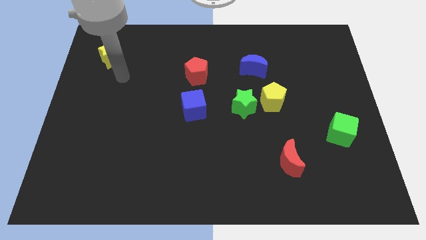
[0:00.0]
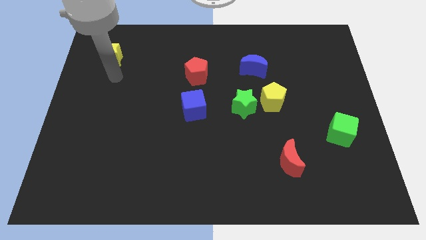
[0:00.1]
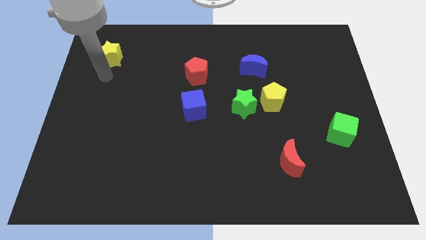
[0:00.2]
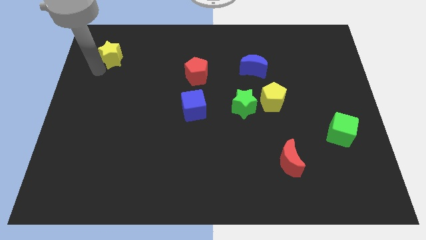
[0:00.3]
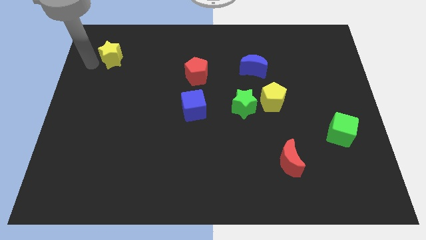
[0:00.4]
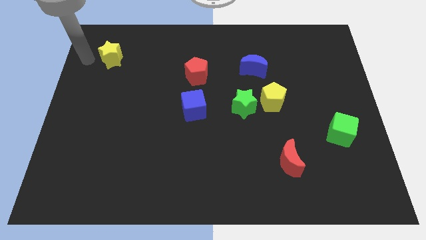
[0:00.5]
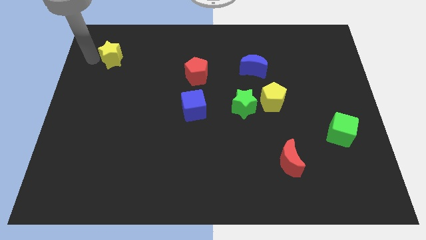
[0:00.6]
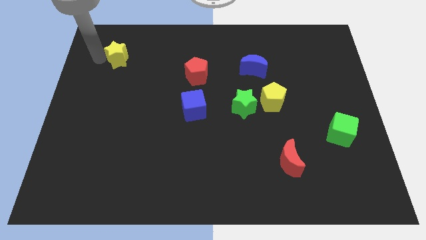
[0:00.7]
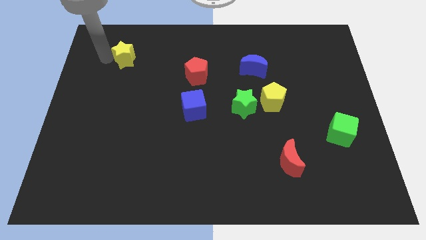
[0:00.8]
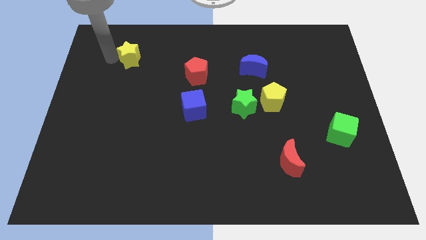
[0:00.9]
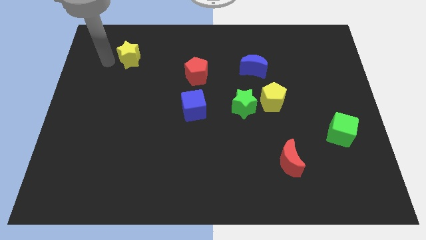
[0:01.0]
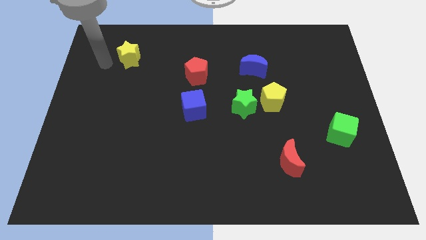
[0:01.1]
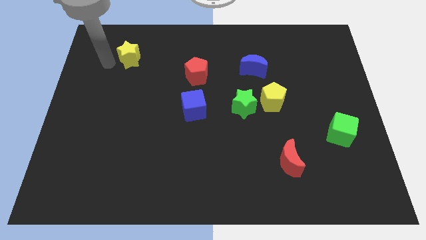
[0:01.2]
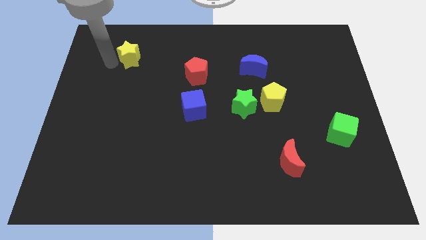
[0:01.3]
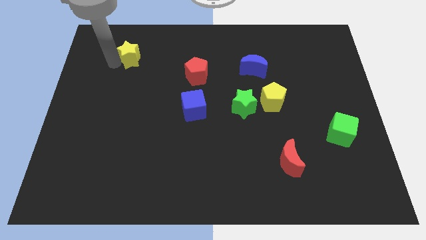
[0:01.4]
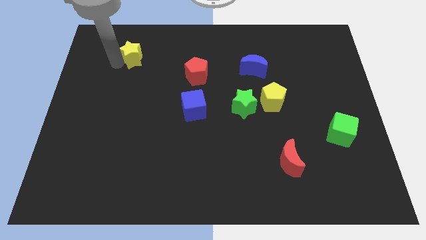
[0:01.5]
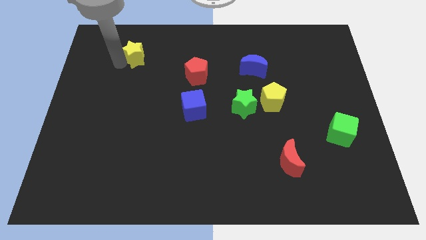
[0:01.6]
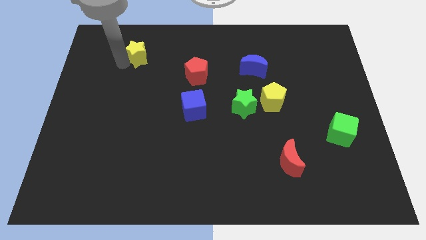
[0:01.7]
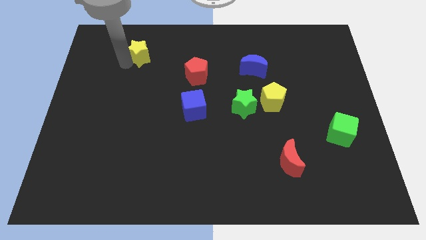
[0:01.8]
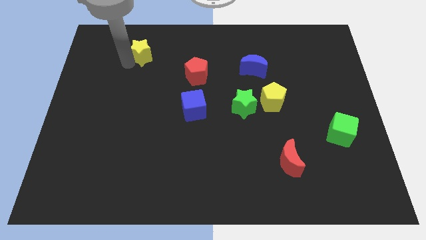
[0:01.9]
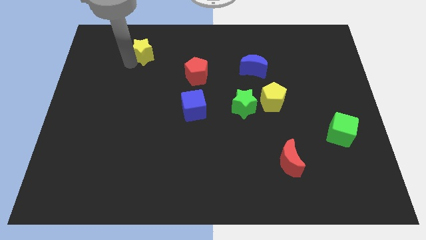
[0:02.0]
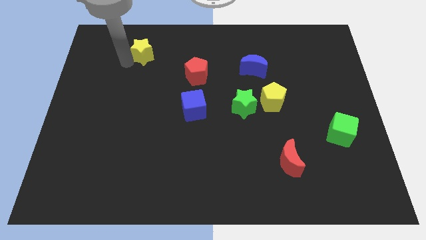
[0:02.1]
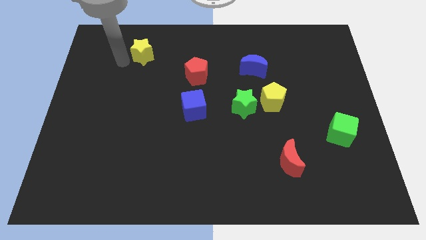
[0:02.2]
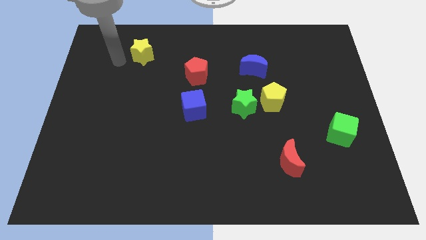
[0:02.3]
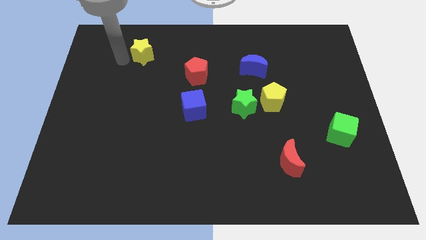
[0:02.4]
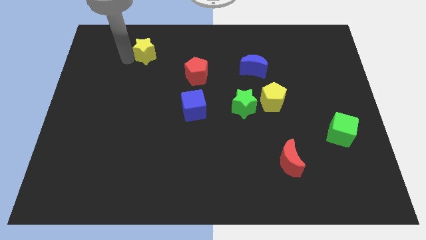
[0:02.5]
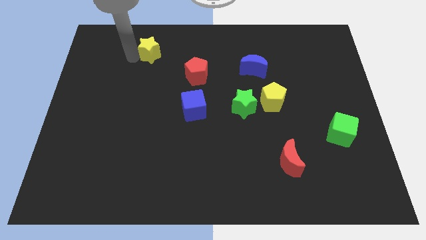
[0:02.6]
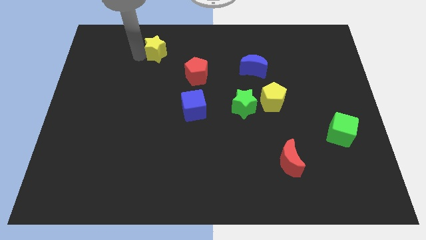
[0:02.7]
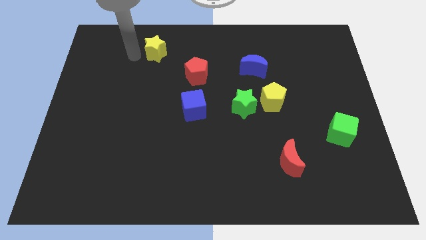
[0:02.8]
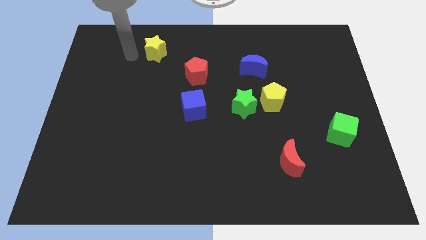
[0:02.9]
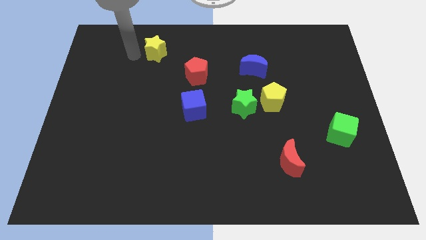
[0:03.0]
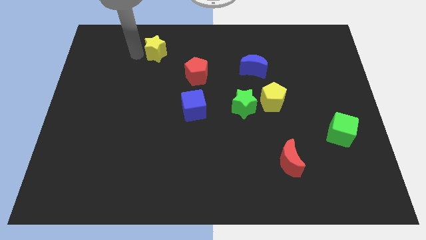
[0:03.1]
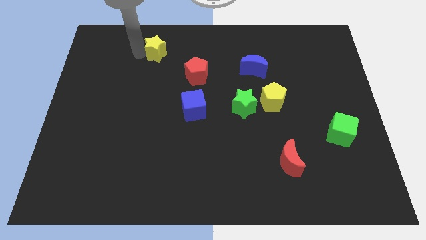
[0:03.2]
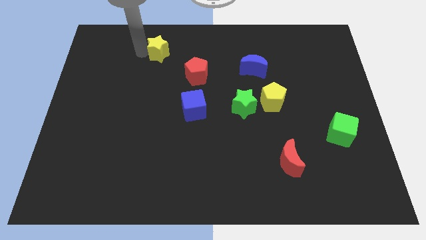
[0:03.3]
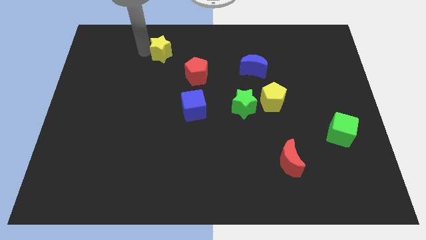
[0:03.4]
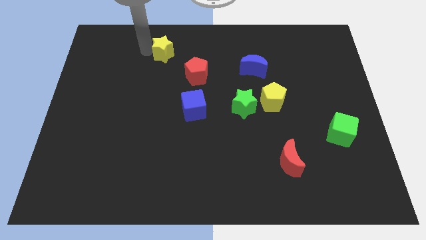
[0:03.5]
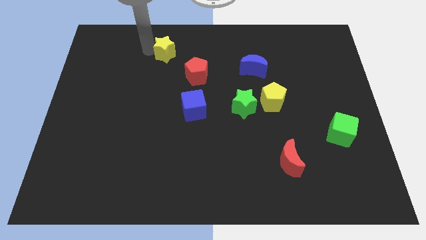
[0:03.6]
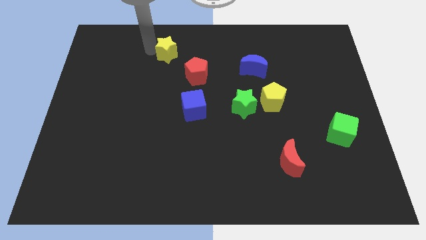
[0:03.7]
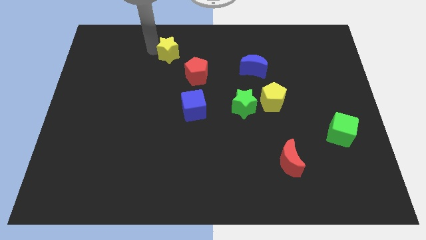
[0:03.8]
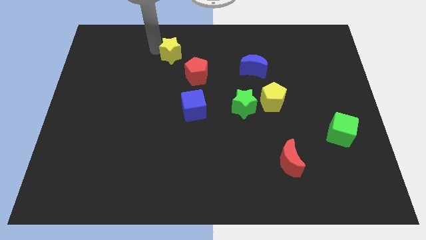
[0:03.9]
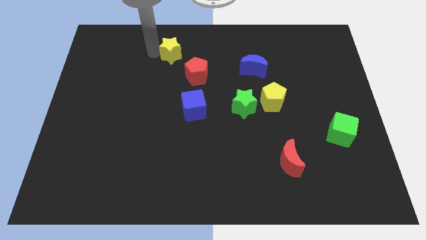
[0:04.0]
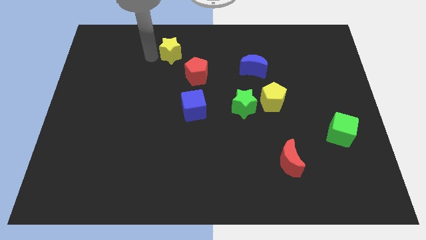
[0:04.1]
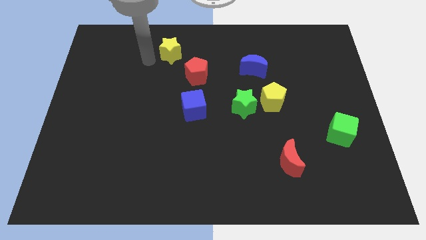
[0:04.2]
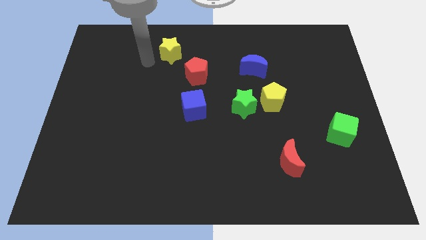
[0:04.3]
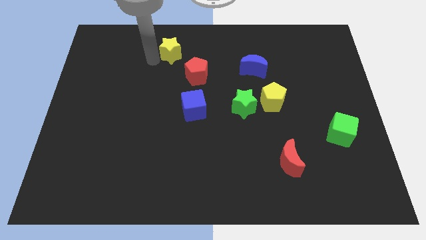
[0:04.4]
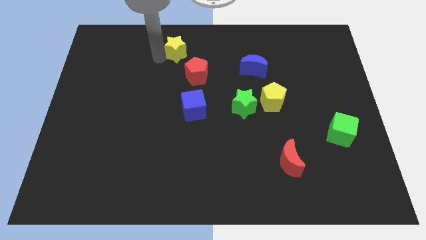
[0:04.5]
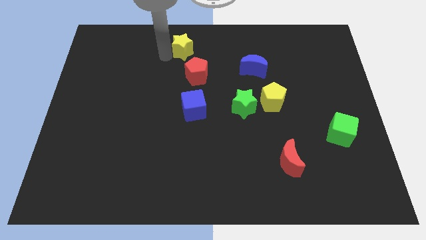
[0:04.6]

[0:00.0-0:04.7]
slide the yellow star to the top

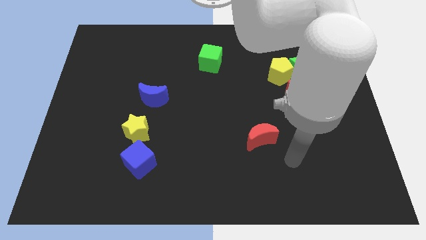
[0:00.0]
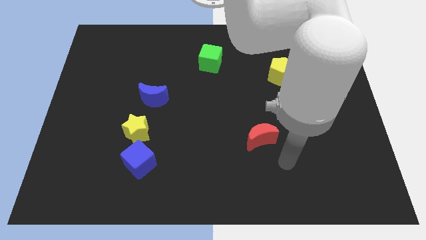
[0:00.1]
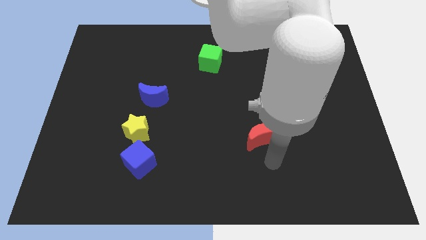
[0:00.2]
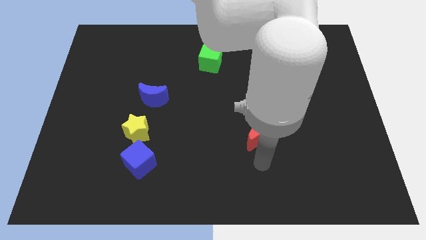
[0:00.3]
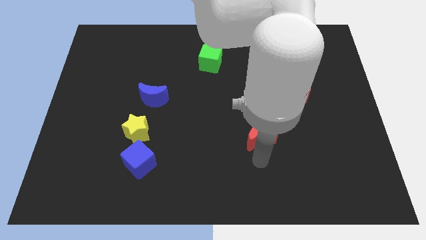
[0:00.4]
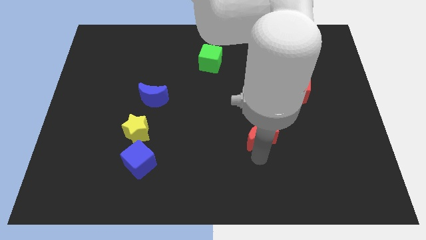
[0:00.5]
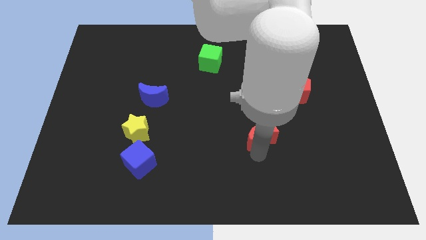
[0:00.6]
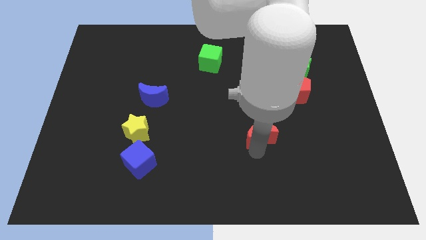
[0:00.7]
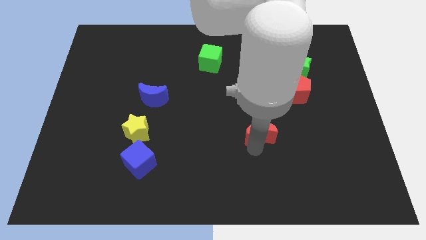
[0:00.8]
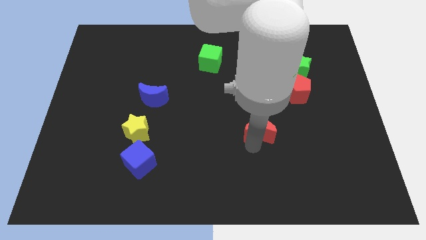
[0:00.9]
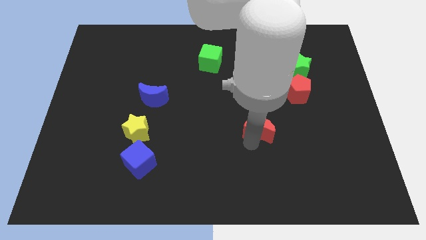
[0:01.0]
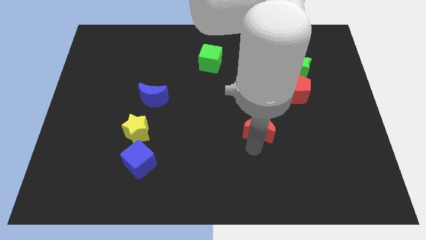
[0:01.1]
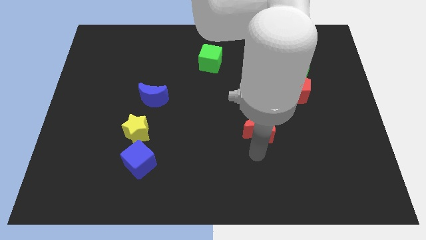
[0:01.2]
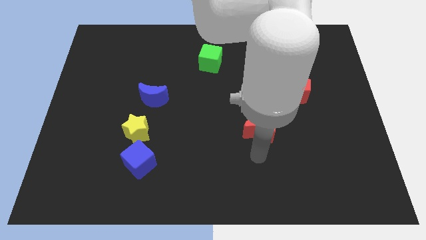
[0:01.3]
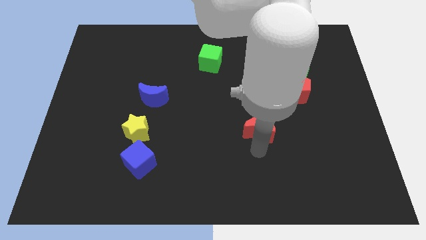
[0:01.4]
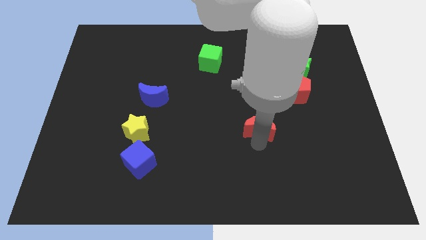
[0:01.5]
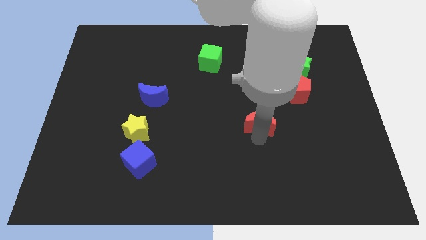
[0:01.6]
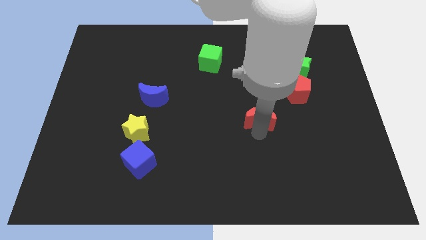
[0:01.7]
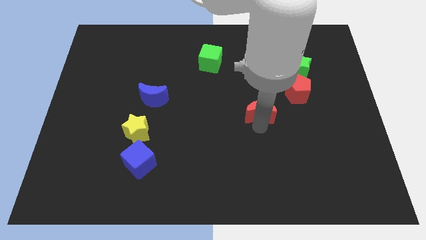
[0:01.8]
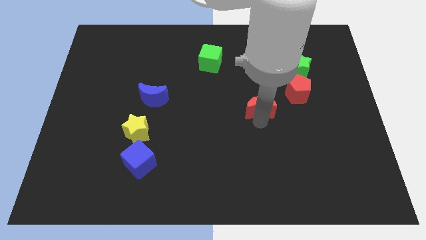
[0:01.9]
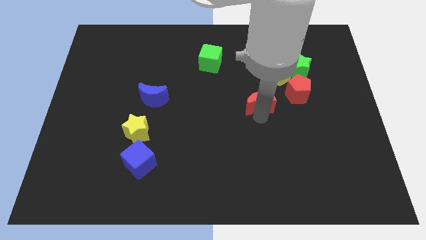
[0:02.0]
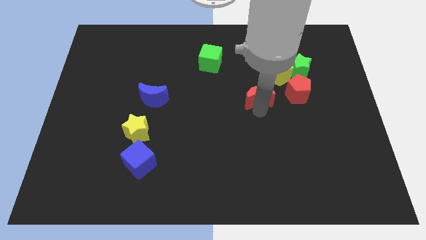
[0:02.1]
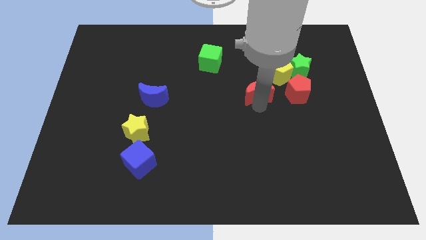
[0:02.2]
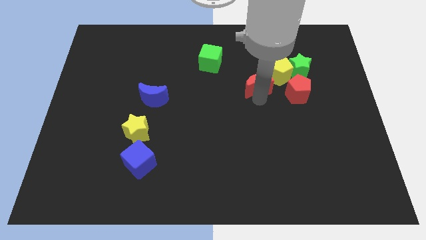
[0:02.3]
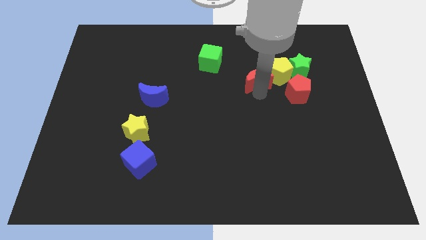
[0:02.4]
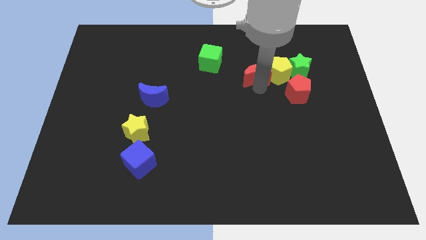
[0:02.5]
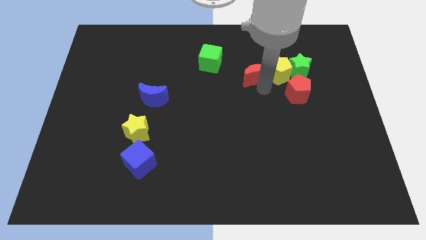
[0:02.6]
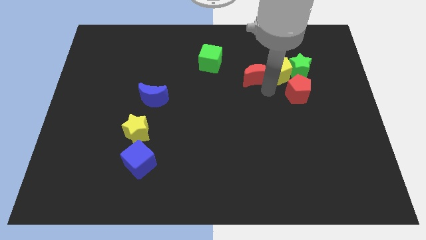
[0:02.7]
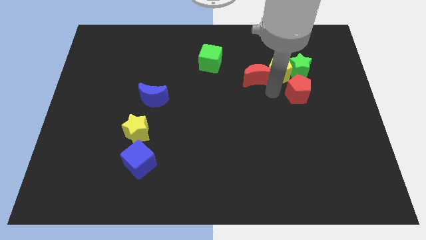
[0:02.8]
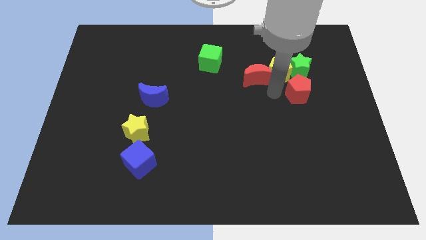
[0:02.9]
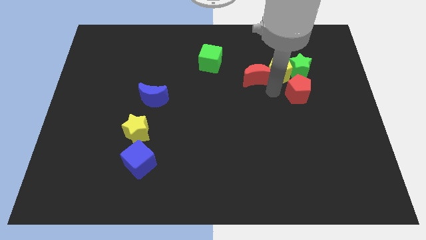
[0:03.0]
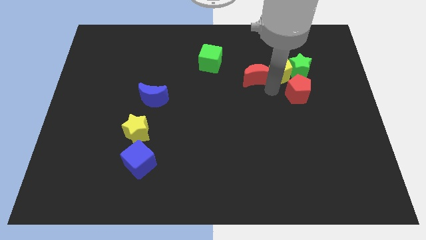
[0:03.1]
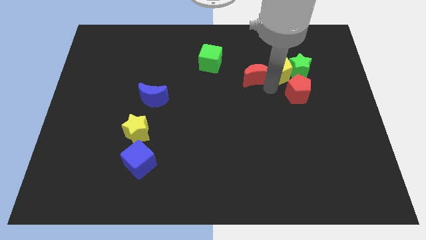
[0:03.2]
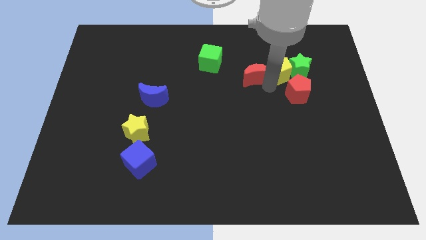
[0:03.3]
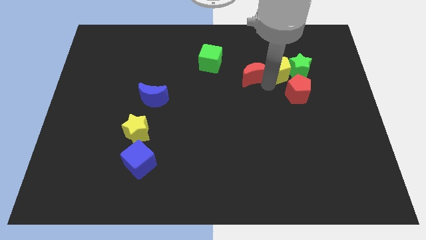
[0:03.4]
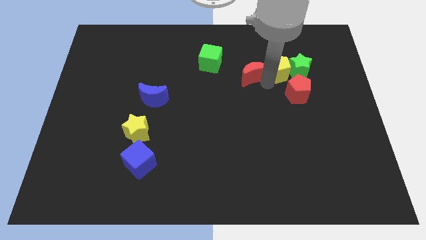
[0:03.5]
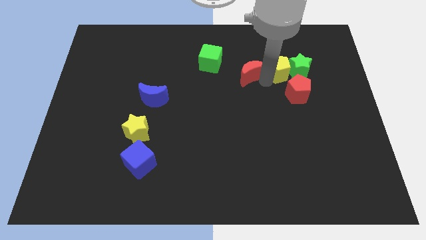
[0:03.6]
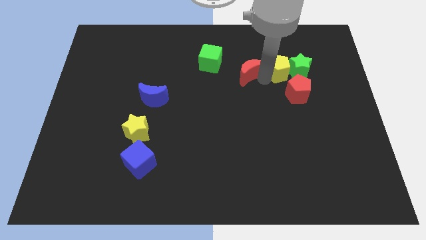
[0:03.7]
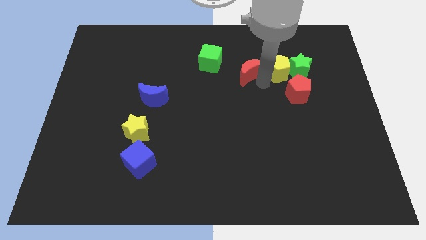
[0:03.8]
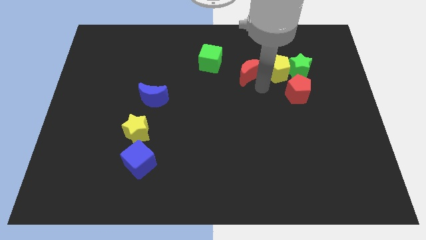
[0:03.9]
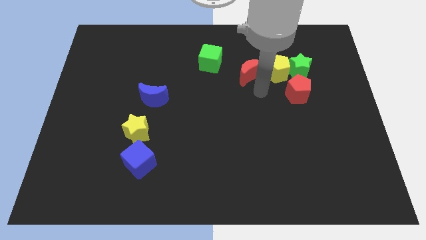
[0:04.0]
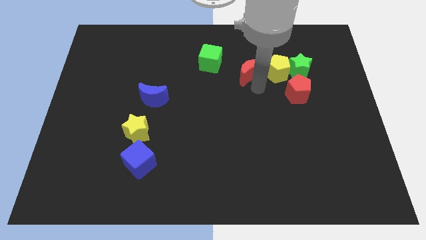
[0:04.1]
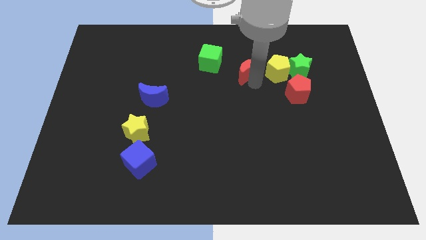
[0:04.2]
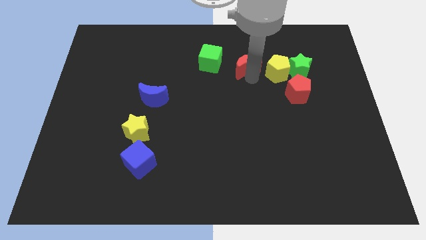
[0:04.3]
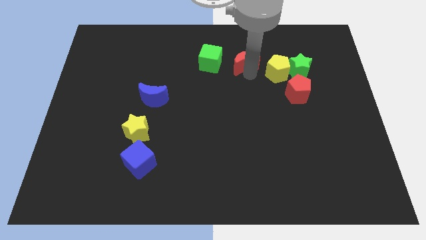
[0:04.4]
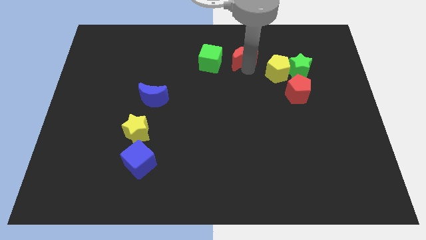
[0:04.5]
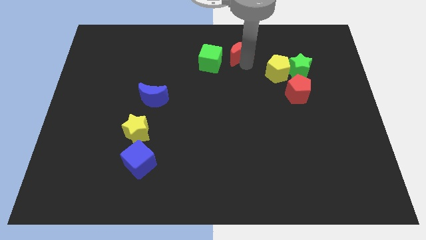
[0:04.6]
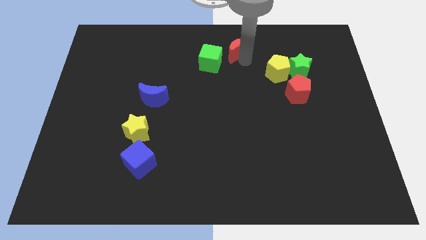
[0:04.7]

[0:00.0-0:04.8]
push the red moon to the towards your base
